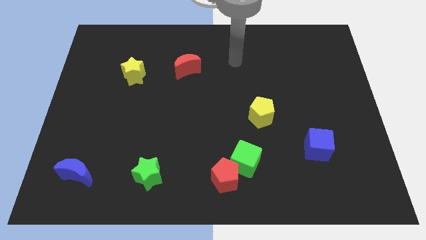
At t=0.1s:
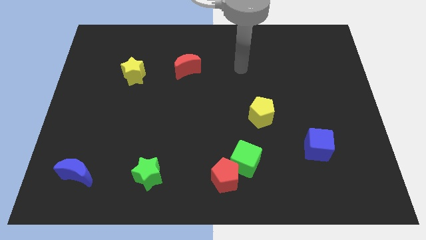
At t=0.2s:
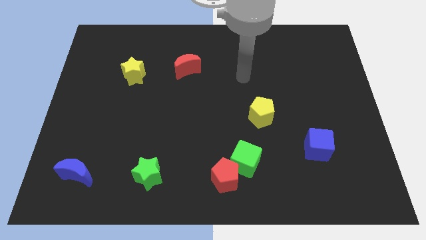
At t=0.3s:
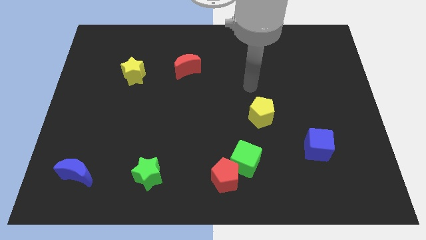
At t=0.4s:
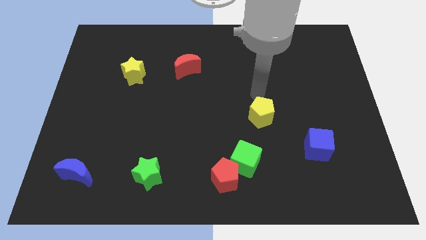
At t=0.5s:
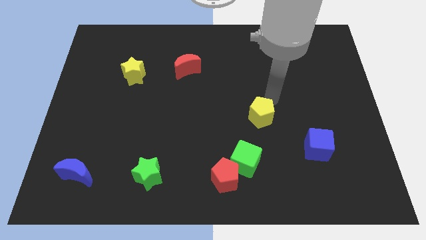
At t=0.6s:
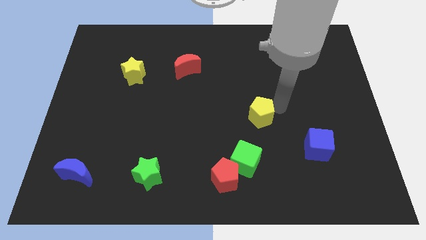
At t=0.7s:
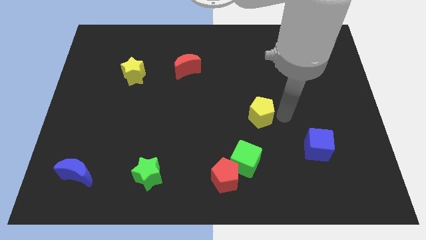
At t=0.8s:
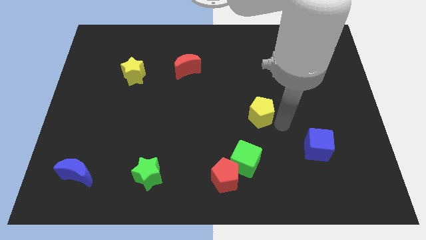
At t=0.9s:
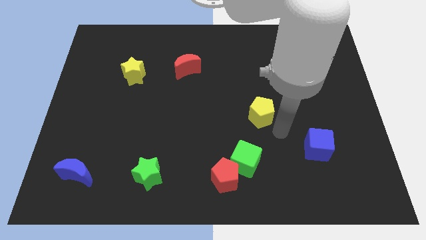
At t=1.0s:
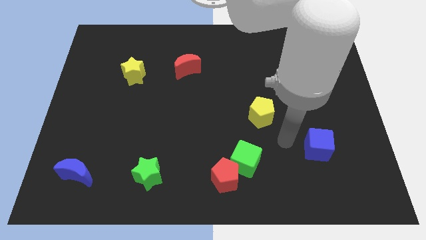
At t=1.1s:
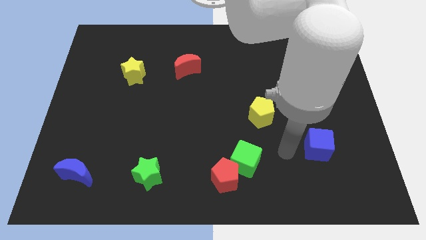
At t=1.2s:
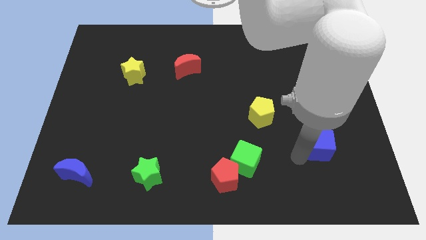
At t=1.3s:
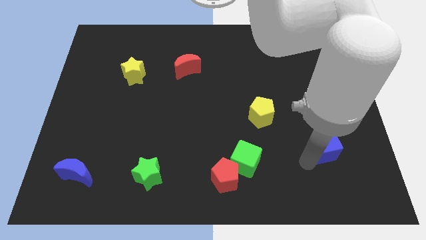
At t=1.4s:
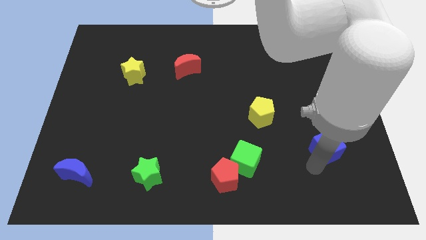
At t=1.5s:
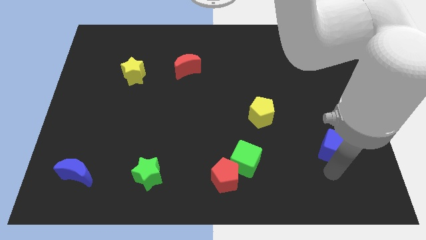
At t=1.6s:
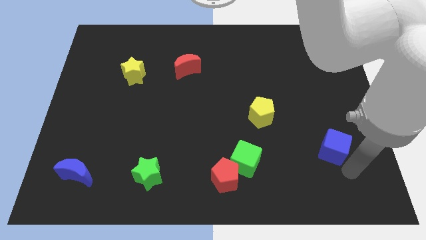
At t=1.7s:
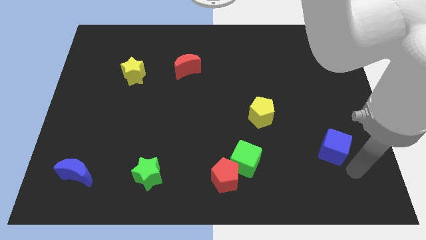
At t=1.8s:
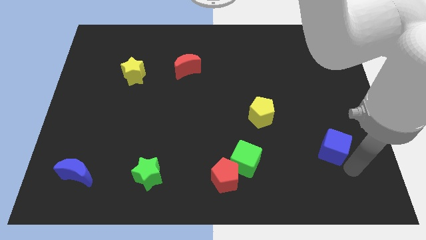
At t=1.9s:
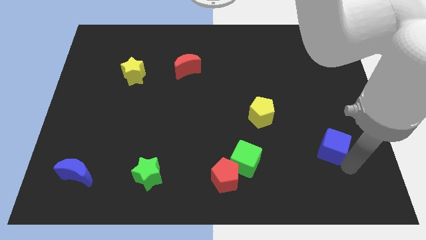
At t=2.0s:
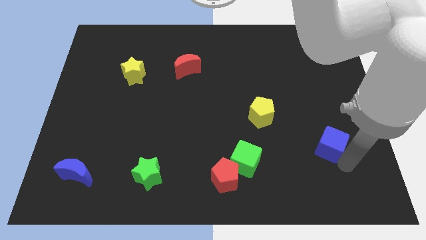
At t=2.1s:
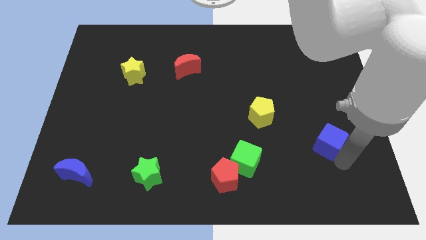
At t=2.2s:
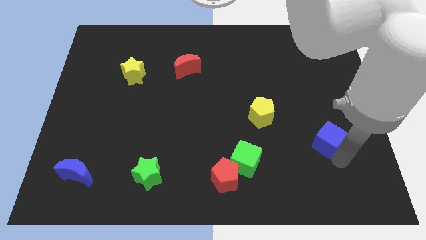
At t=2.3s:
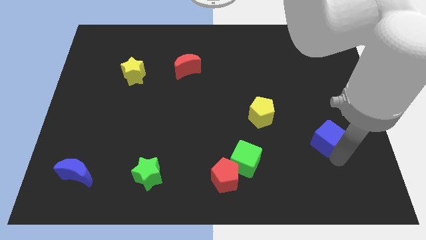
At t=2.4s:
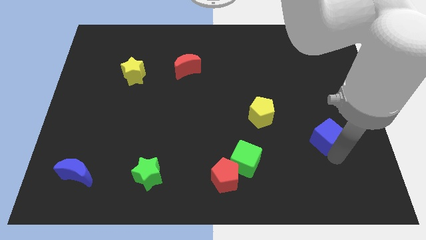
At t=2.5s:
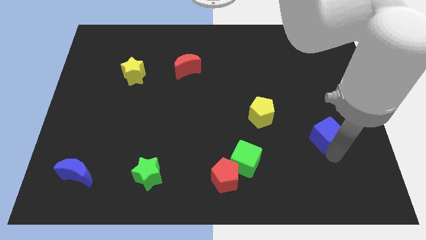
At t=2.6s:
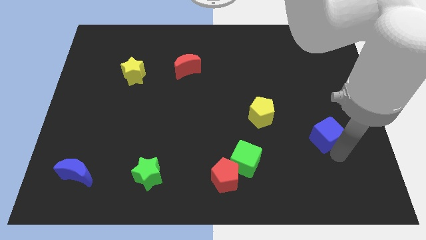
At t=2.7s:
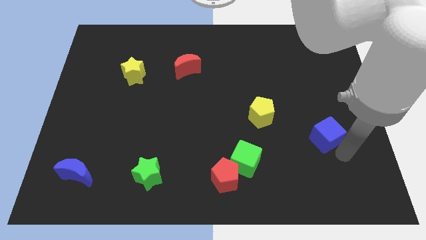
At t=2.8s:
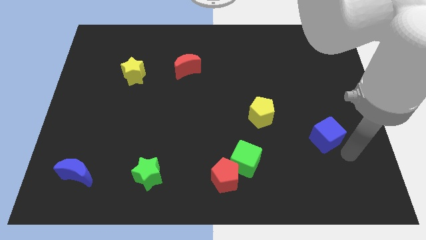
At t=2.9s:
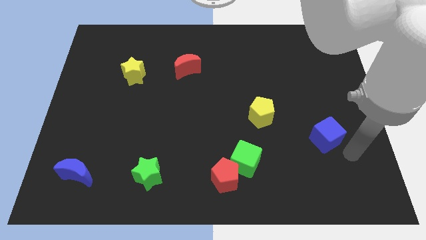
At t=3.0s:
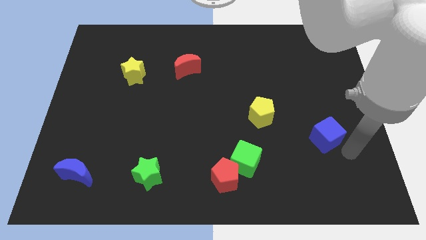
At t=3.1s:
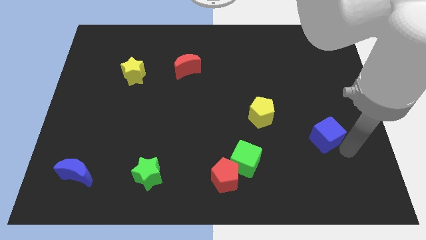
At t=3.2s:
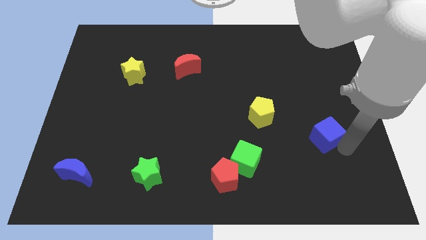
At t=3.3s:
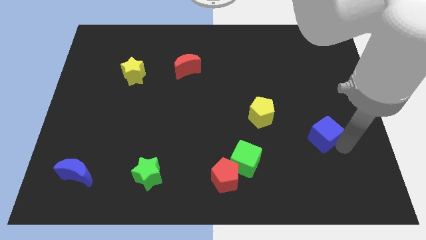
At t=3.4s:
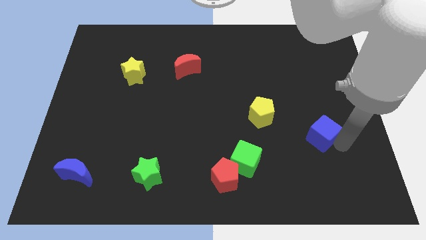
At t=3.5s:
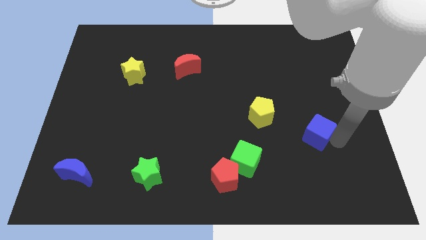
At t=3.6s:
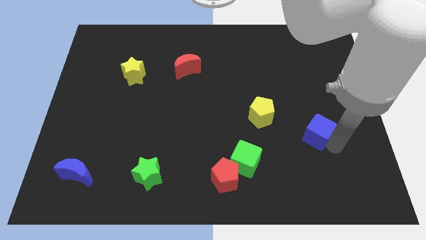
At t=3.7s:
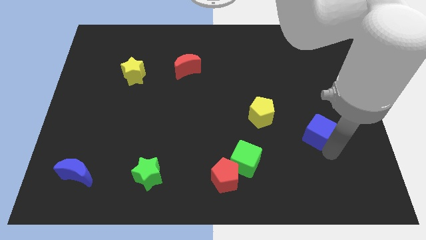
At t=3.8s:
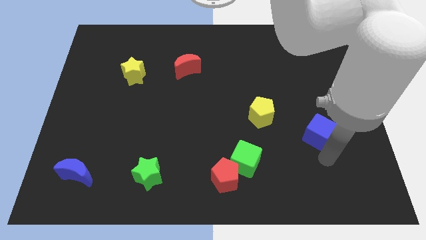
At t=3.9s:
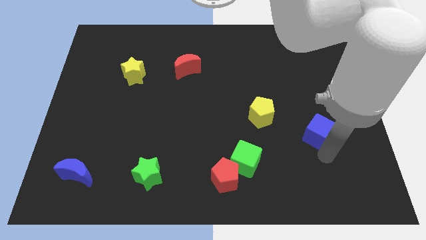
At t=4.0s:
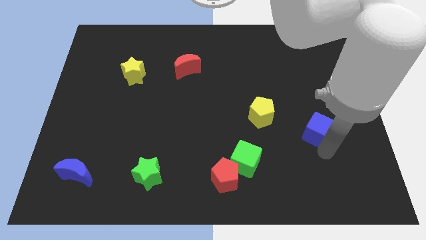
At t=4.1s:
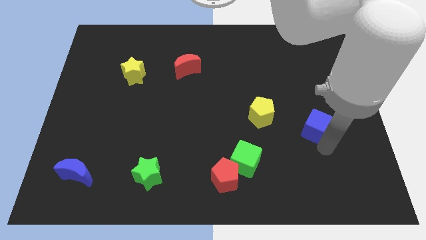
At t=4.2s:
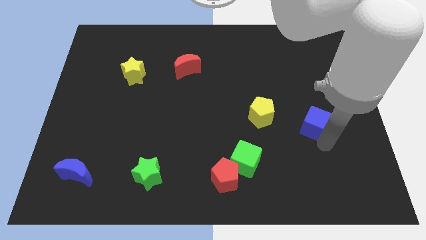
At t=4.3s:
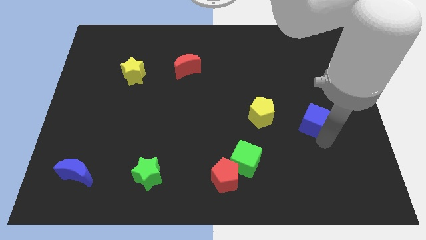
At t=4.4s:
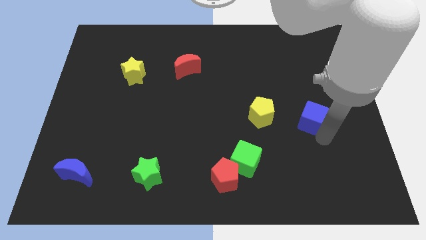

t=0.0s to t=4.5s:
move the blue cube a bit upwards

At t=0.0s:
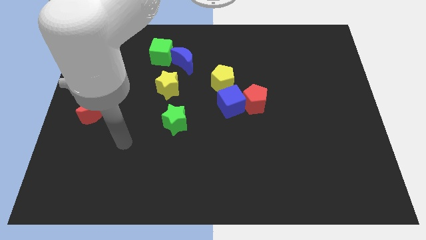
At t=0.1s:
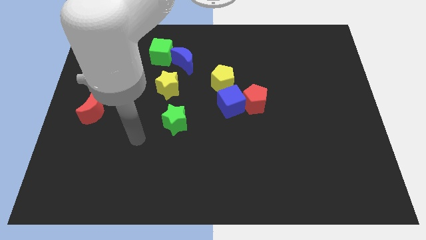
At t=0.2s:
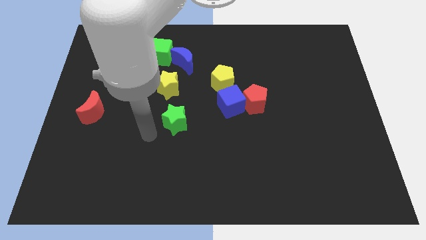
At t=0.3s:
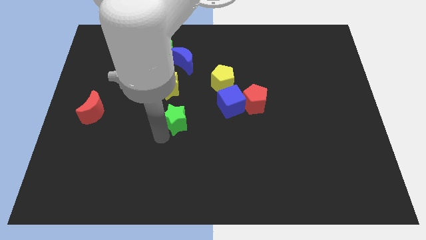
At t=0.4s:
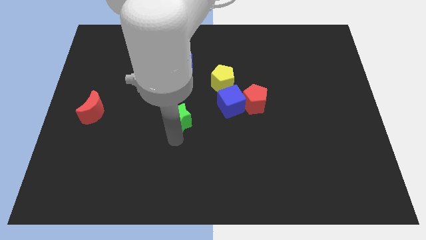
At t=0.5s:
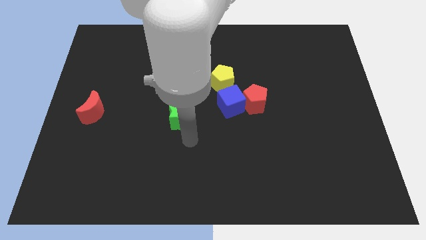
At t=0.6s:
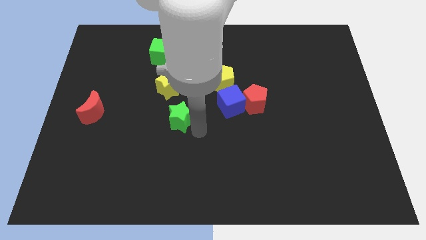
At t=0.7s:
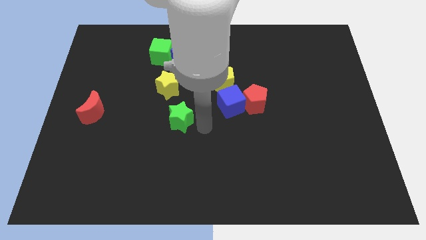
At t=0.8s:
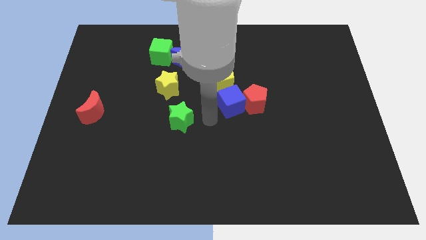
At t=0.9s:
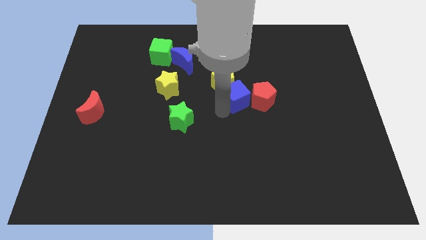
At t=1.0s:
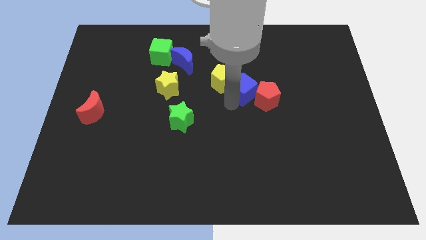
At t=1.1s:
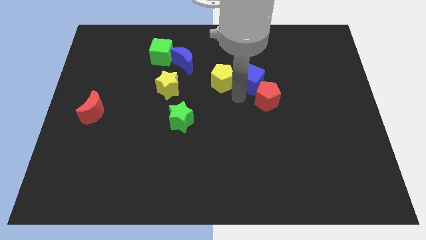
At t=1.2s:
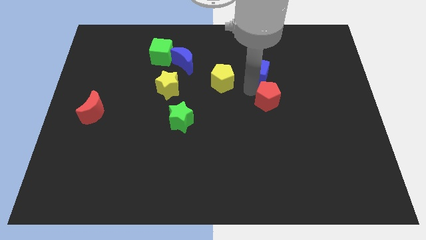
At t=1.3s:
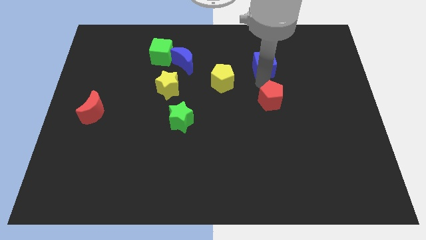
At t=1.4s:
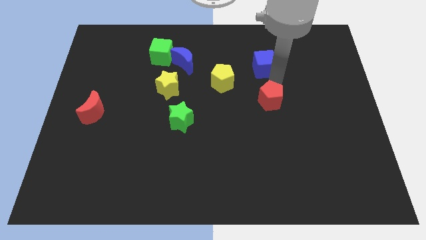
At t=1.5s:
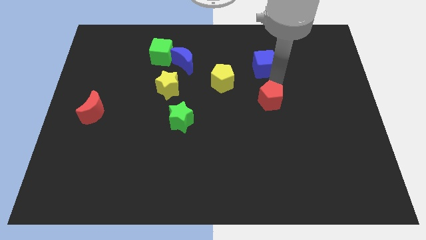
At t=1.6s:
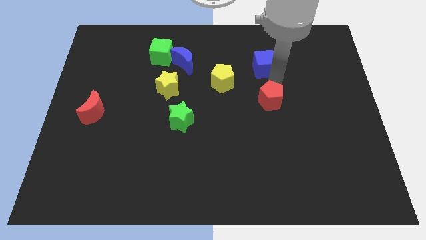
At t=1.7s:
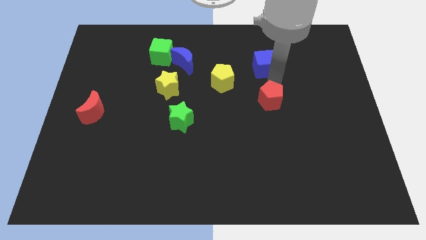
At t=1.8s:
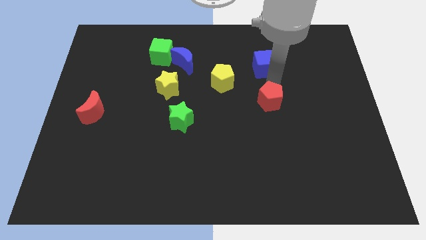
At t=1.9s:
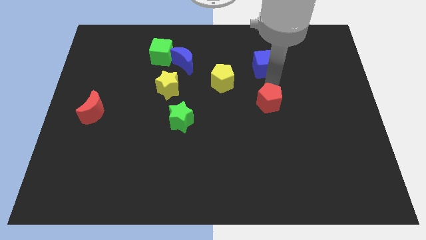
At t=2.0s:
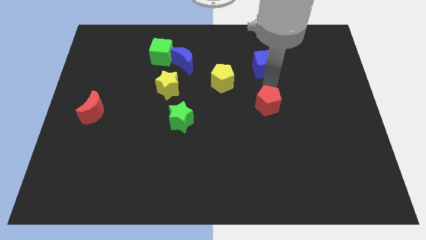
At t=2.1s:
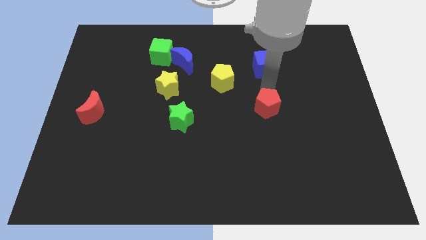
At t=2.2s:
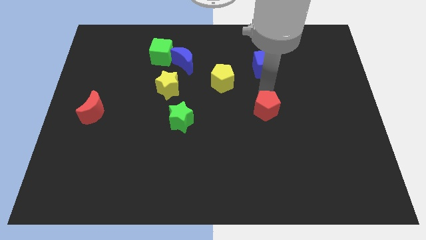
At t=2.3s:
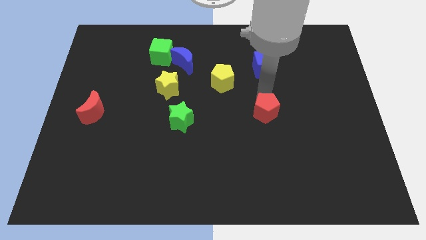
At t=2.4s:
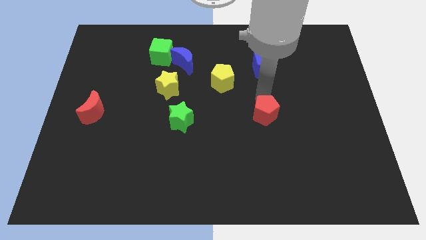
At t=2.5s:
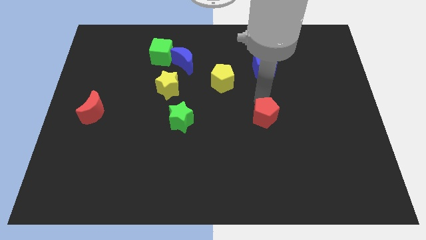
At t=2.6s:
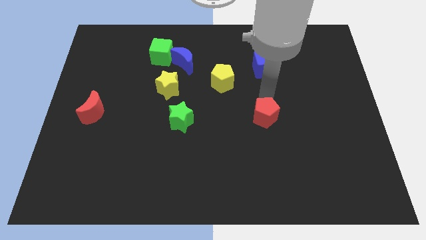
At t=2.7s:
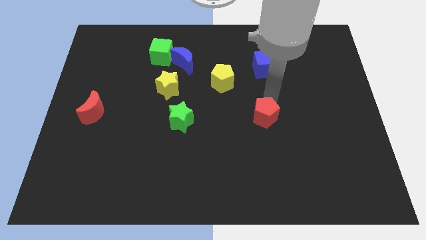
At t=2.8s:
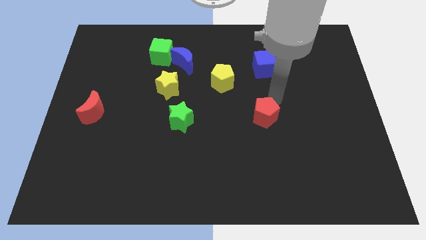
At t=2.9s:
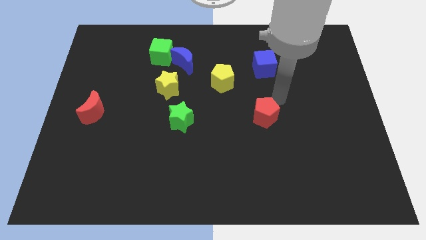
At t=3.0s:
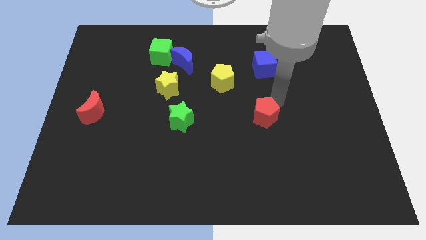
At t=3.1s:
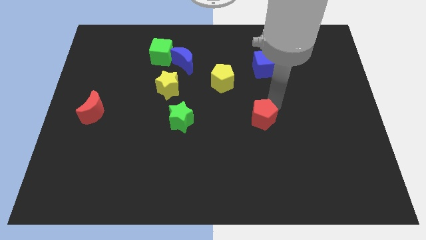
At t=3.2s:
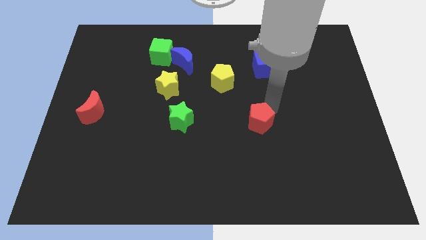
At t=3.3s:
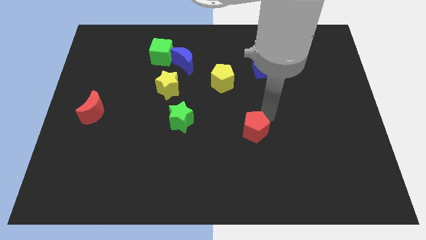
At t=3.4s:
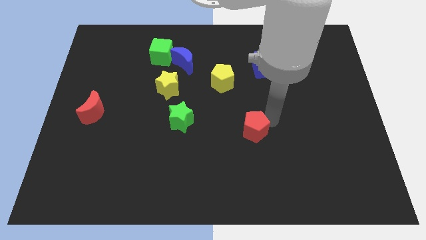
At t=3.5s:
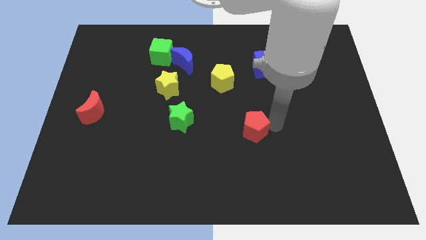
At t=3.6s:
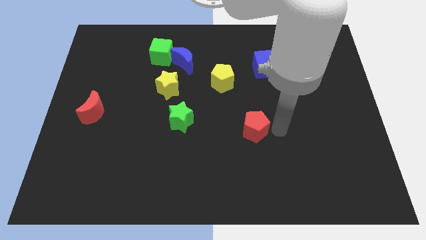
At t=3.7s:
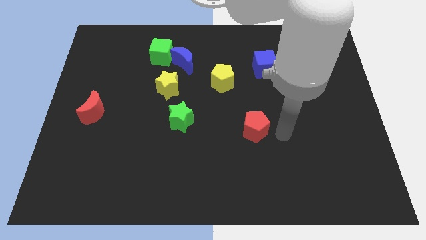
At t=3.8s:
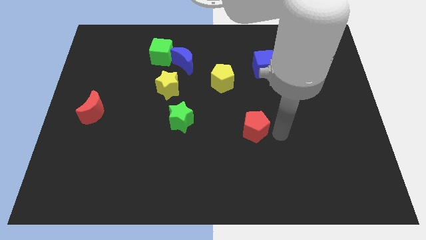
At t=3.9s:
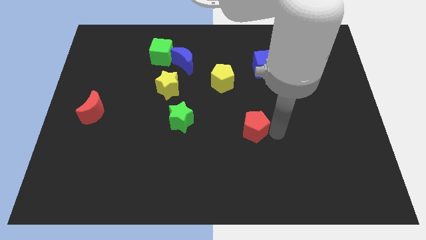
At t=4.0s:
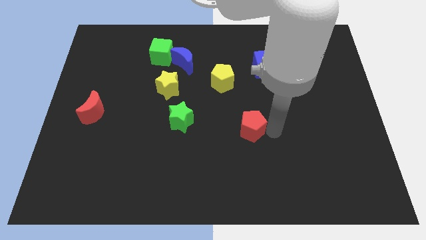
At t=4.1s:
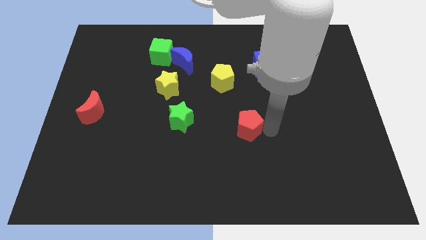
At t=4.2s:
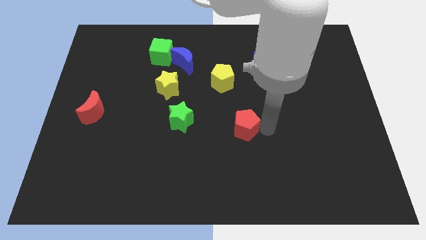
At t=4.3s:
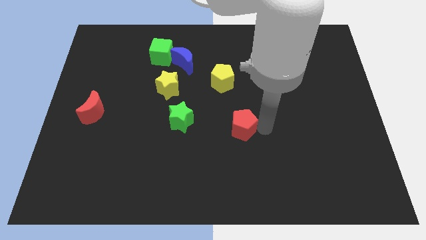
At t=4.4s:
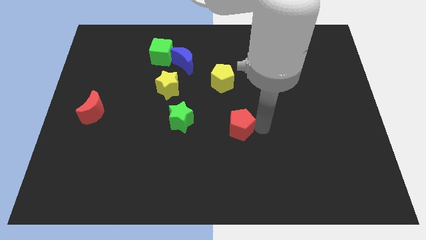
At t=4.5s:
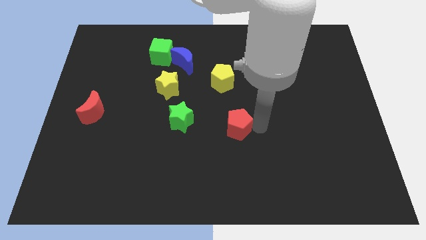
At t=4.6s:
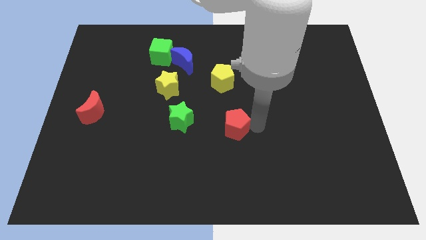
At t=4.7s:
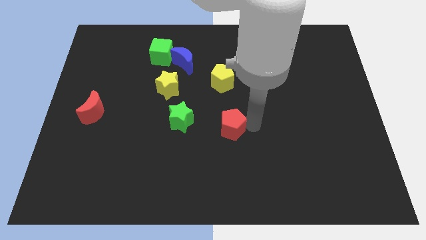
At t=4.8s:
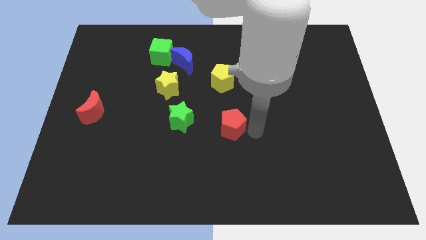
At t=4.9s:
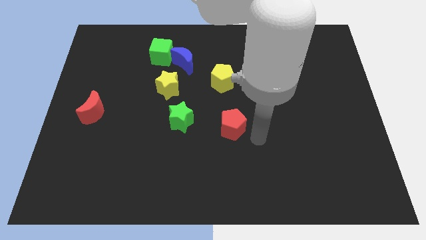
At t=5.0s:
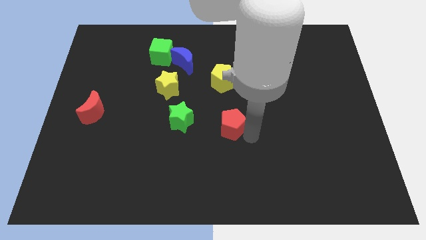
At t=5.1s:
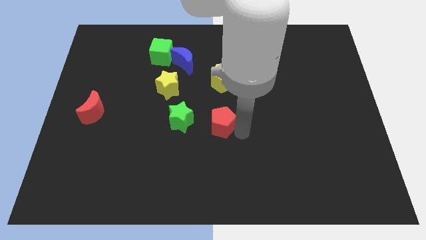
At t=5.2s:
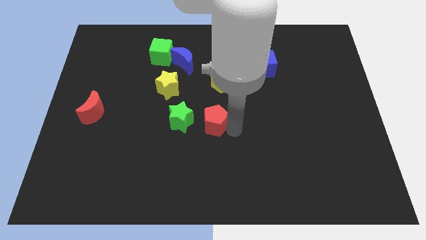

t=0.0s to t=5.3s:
move the red pentagon slightly left
